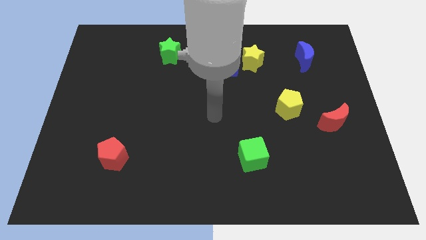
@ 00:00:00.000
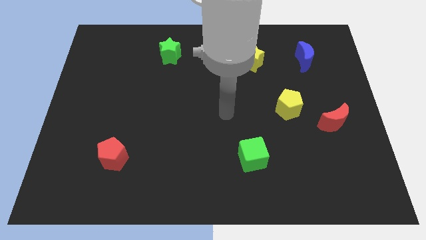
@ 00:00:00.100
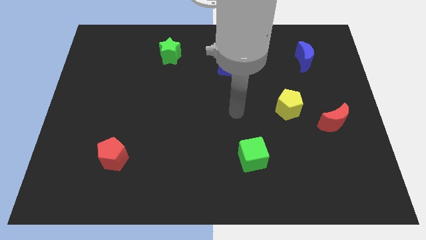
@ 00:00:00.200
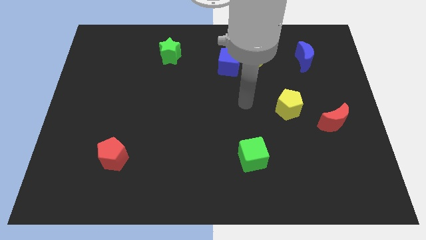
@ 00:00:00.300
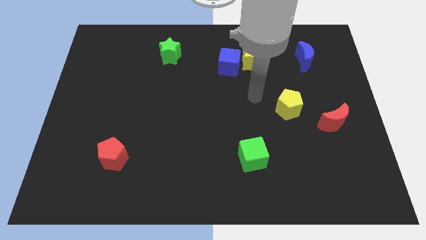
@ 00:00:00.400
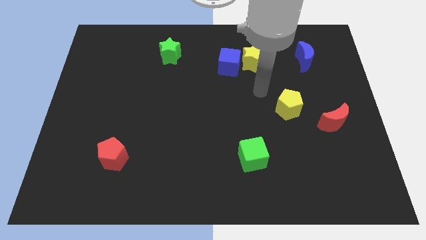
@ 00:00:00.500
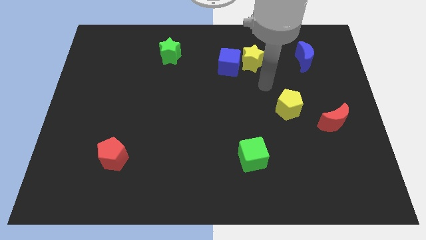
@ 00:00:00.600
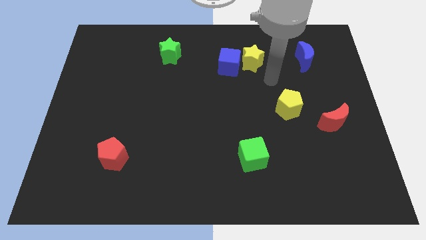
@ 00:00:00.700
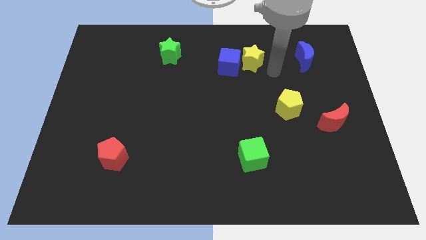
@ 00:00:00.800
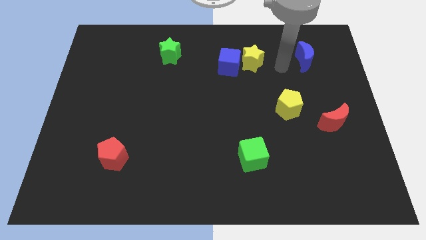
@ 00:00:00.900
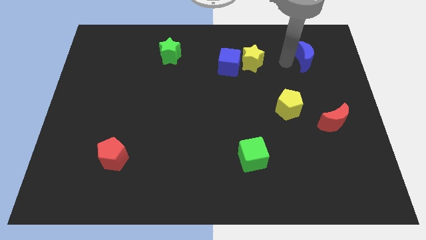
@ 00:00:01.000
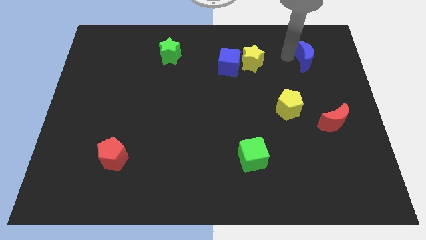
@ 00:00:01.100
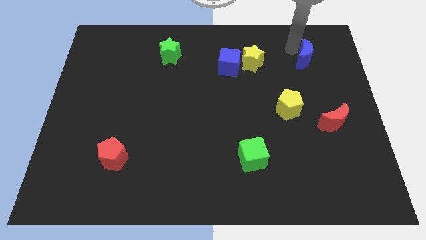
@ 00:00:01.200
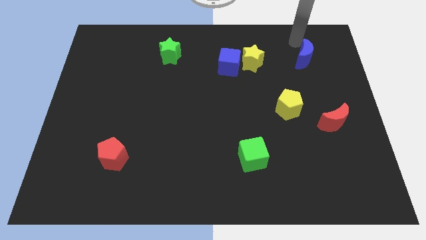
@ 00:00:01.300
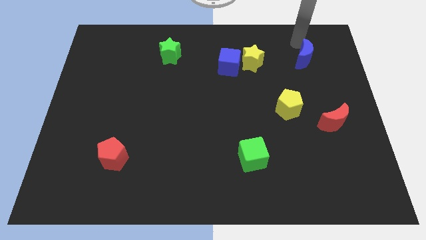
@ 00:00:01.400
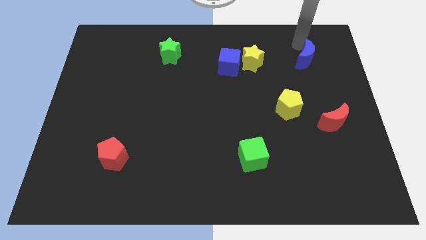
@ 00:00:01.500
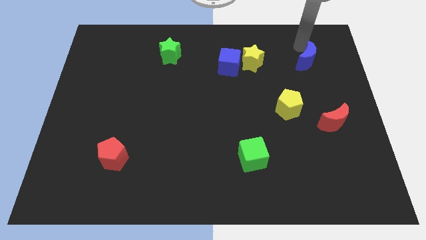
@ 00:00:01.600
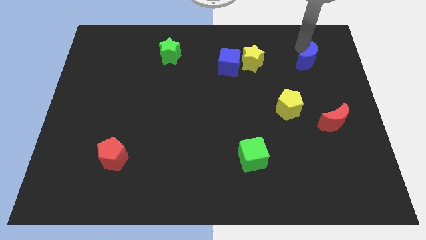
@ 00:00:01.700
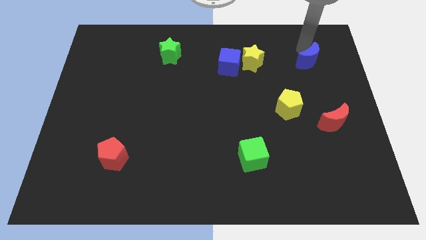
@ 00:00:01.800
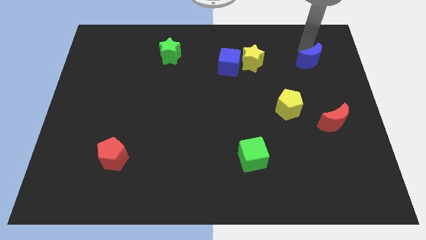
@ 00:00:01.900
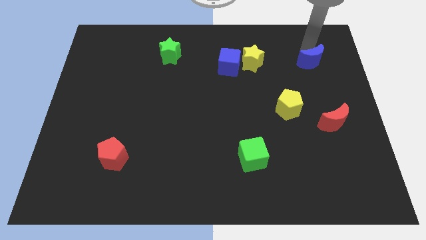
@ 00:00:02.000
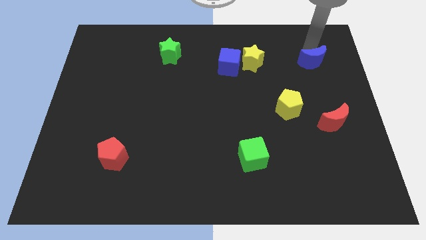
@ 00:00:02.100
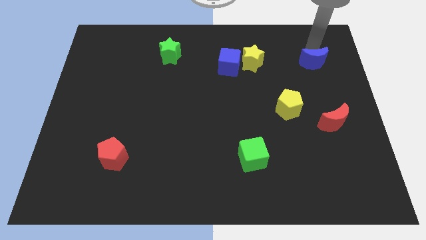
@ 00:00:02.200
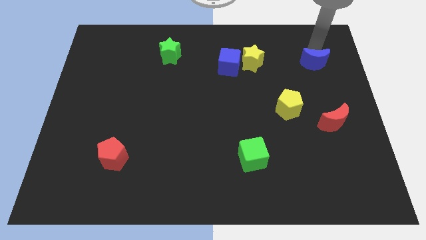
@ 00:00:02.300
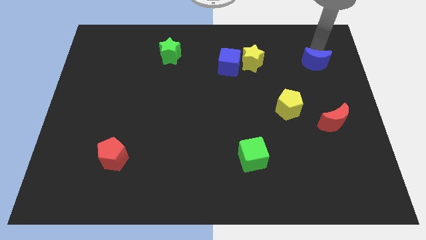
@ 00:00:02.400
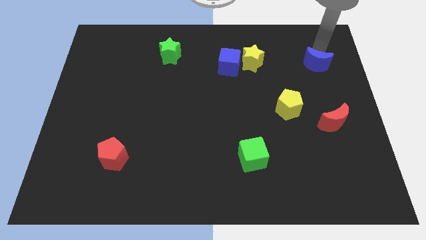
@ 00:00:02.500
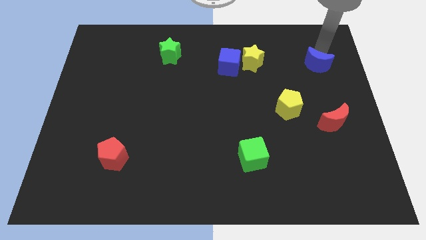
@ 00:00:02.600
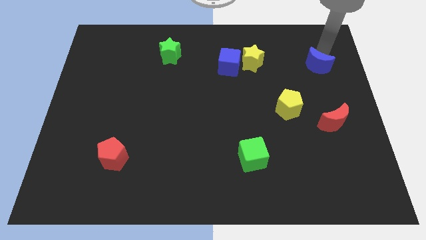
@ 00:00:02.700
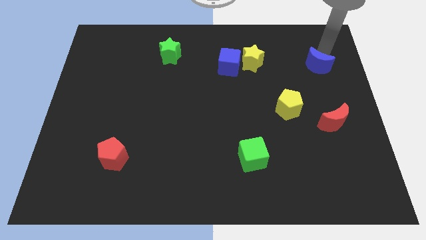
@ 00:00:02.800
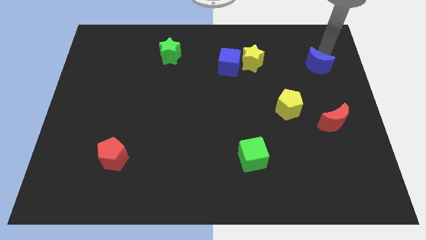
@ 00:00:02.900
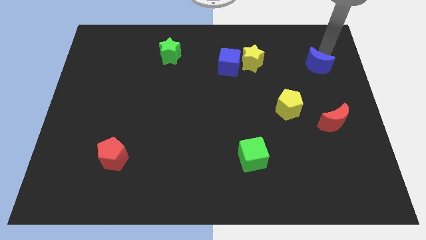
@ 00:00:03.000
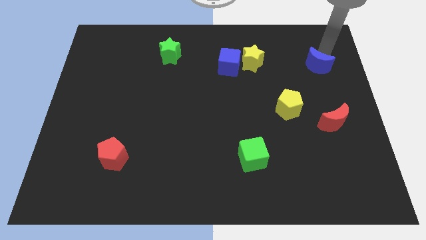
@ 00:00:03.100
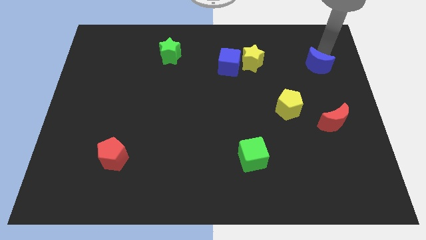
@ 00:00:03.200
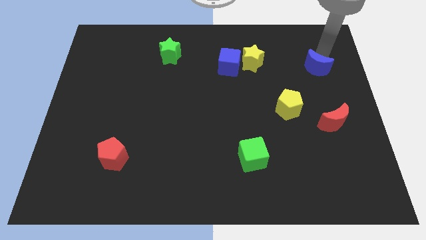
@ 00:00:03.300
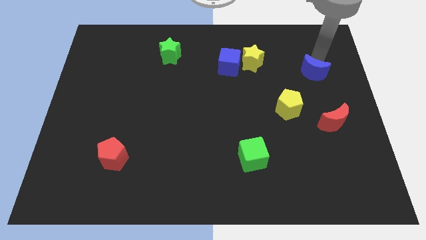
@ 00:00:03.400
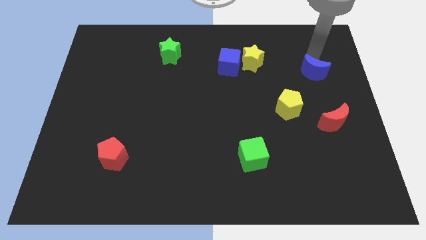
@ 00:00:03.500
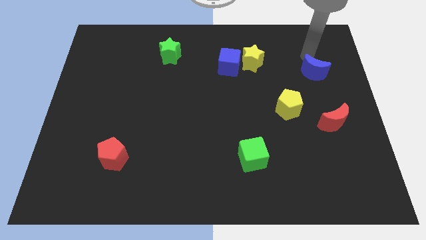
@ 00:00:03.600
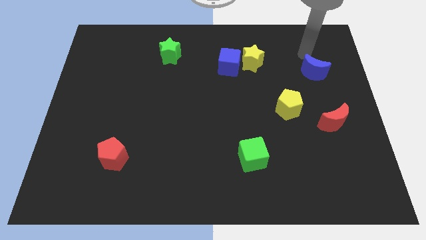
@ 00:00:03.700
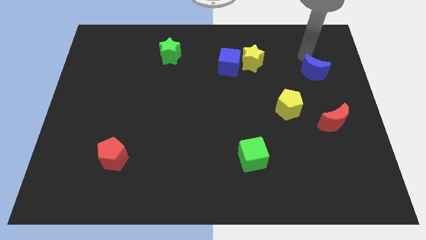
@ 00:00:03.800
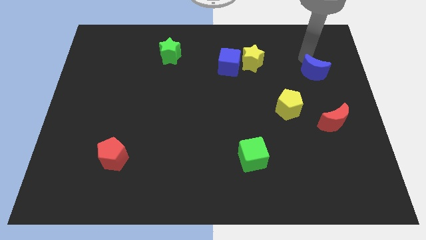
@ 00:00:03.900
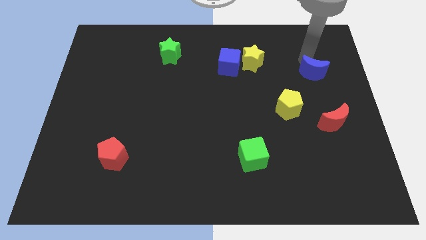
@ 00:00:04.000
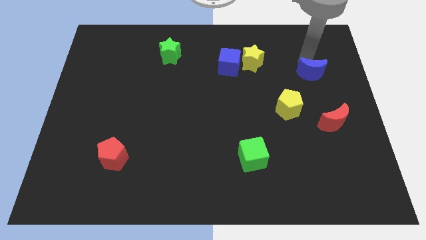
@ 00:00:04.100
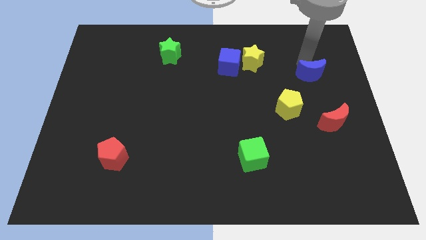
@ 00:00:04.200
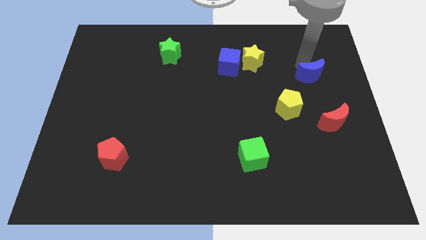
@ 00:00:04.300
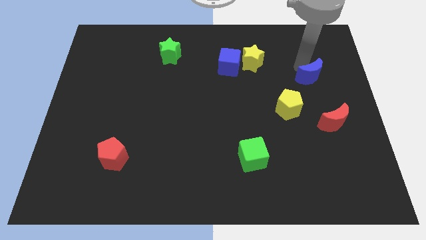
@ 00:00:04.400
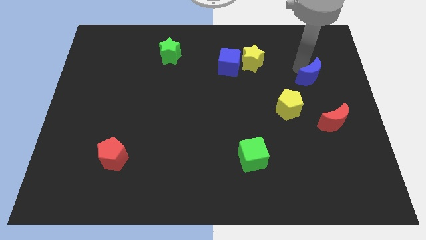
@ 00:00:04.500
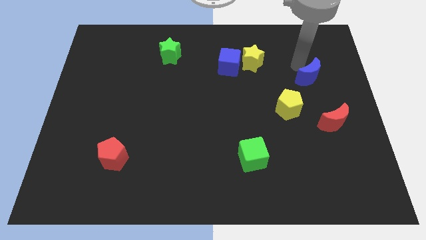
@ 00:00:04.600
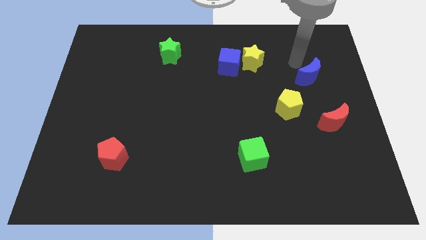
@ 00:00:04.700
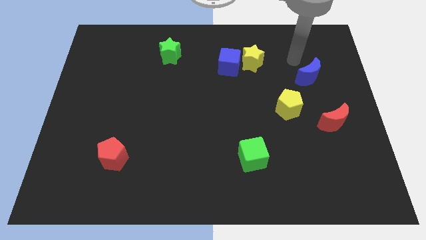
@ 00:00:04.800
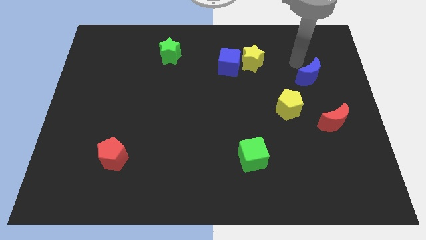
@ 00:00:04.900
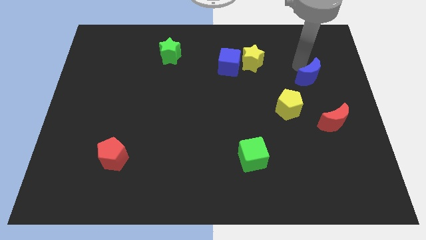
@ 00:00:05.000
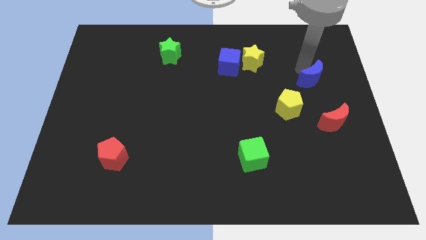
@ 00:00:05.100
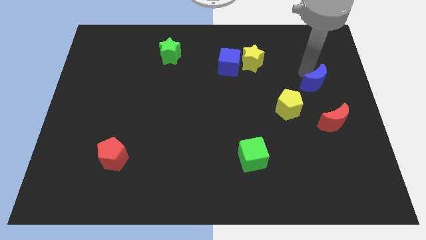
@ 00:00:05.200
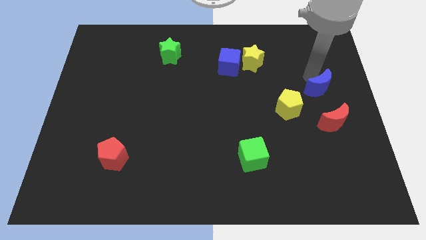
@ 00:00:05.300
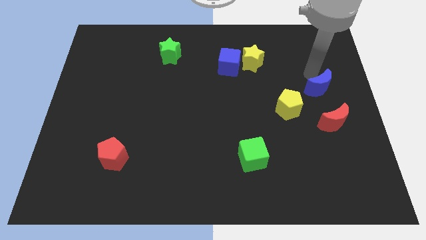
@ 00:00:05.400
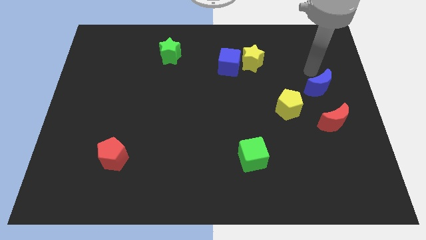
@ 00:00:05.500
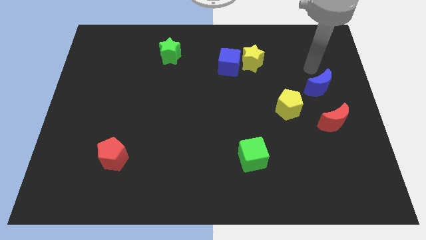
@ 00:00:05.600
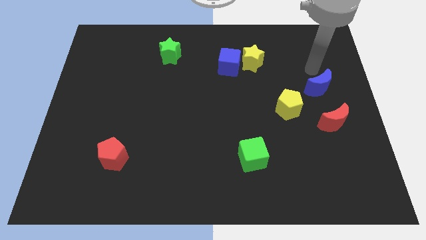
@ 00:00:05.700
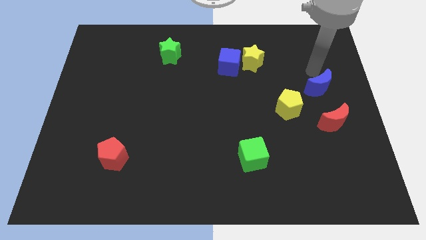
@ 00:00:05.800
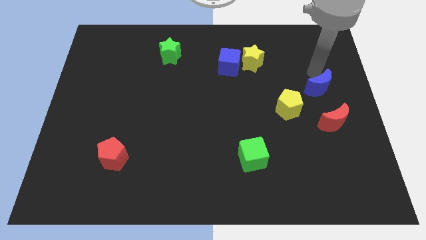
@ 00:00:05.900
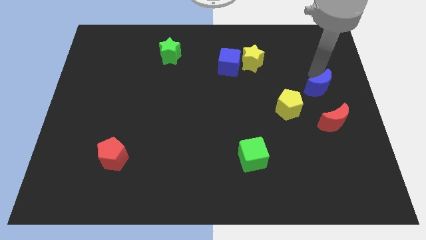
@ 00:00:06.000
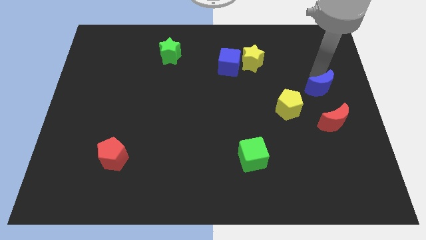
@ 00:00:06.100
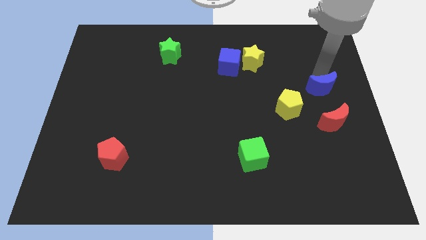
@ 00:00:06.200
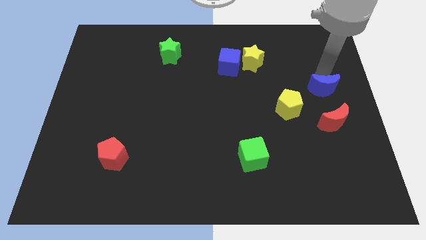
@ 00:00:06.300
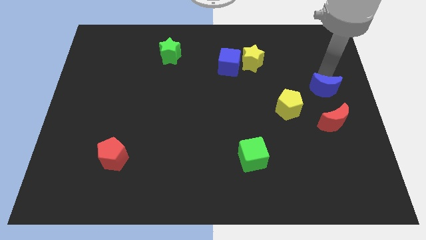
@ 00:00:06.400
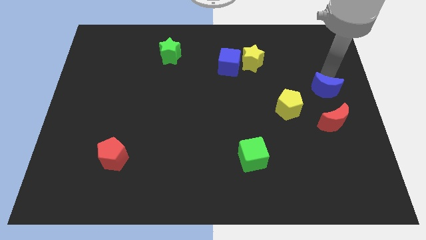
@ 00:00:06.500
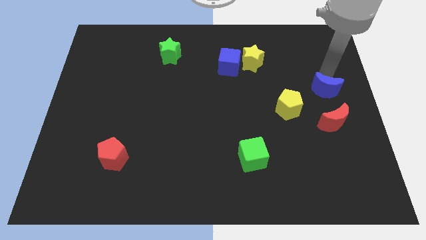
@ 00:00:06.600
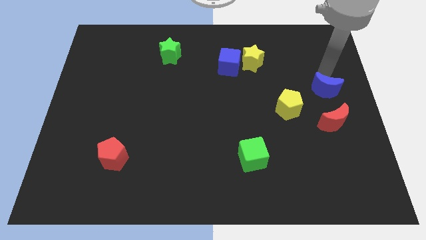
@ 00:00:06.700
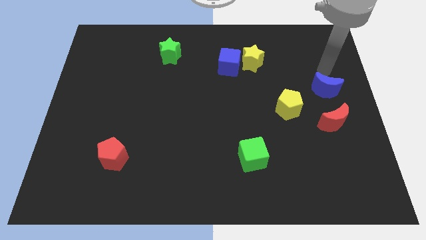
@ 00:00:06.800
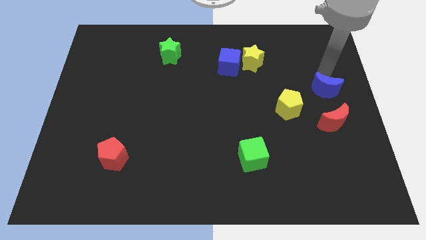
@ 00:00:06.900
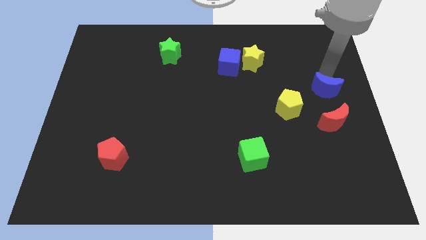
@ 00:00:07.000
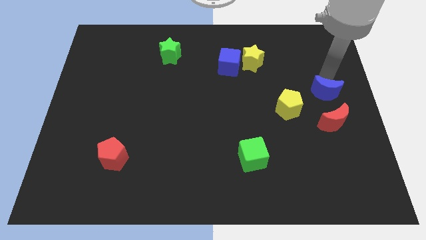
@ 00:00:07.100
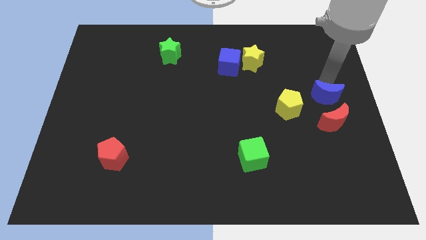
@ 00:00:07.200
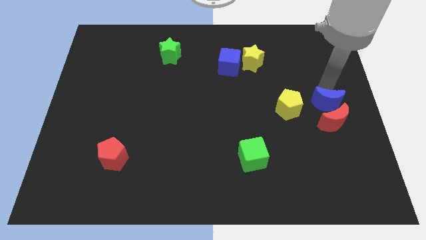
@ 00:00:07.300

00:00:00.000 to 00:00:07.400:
push the blue moon to the red moon
